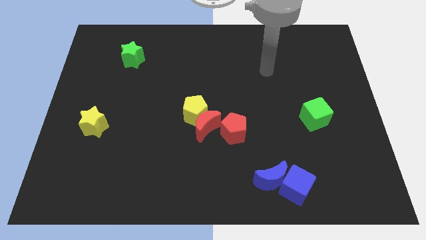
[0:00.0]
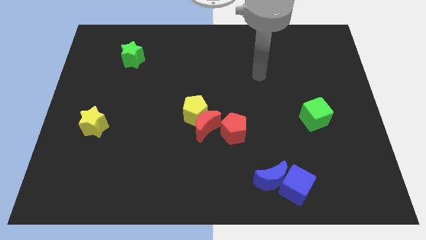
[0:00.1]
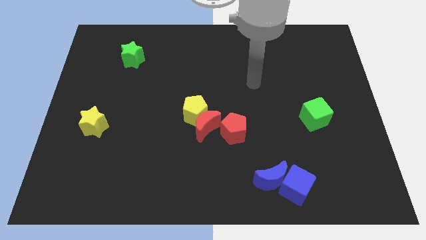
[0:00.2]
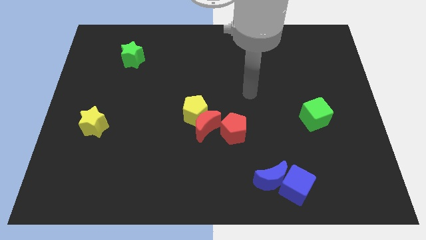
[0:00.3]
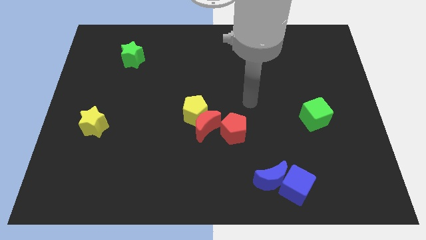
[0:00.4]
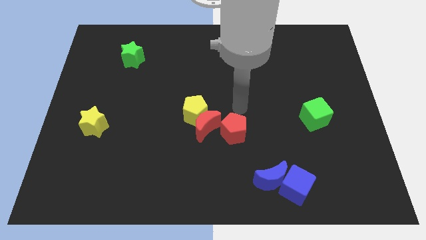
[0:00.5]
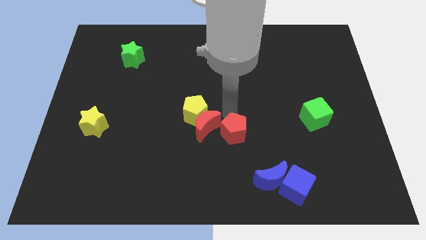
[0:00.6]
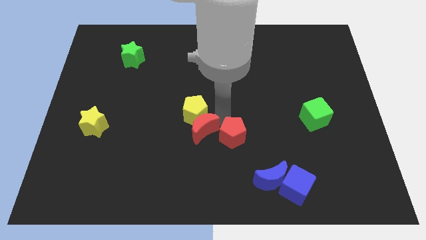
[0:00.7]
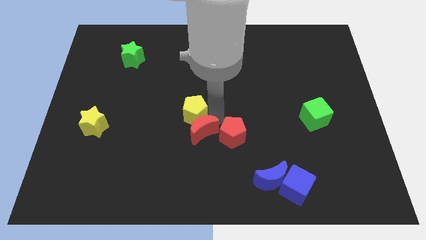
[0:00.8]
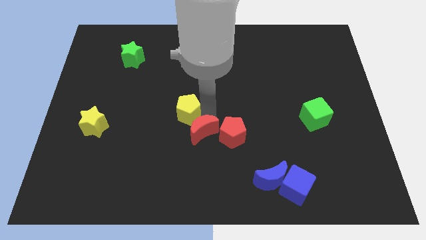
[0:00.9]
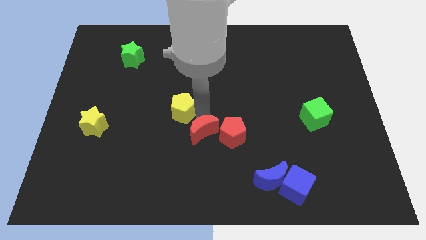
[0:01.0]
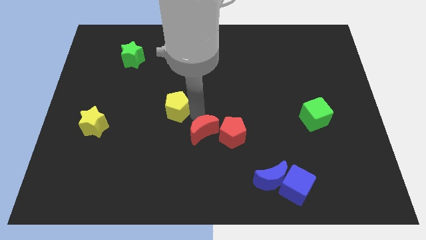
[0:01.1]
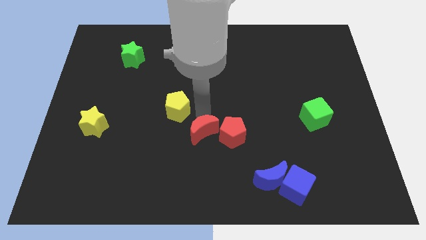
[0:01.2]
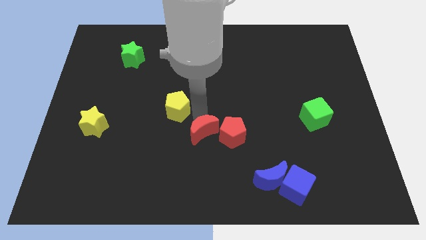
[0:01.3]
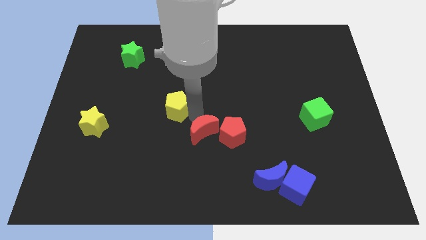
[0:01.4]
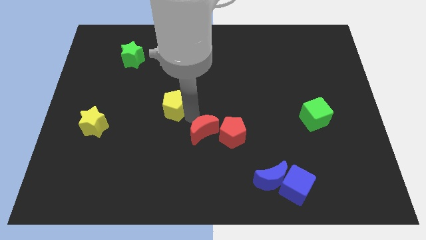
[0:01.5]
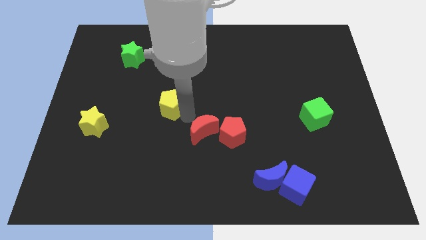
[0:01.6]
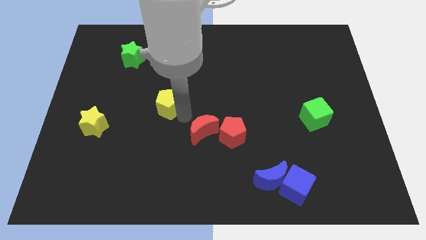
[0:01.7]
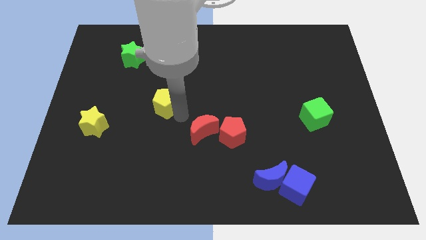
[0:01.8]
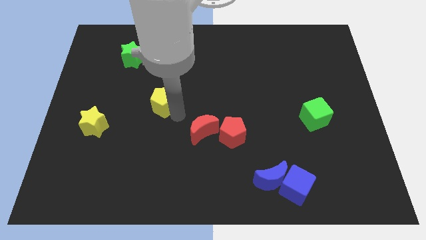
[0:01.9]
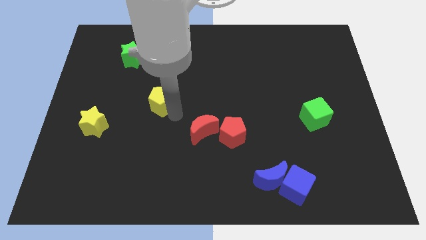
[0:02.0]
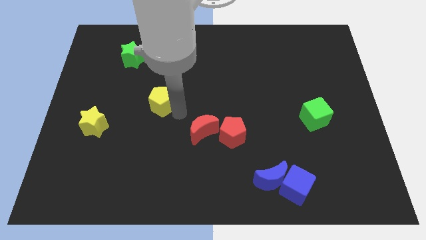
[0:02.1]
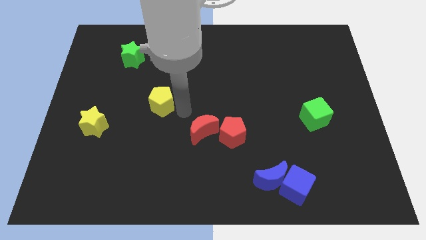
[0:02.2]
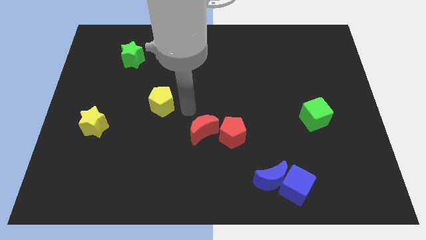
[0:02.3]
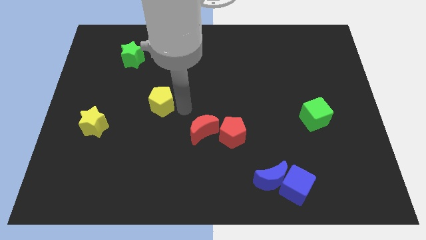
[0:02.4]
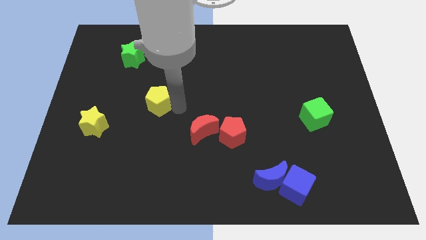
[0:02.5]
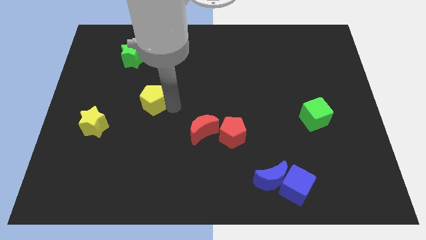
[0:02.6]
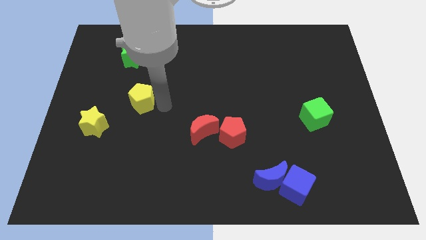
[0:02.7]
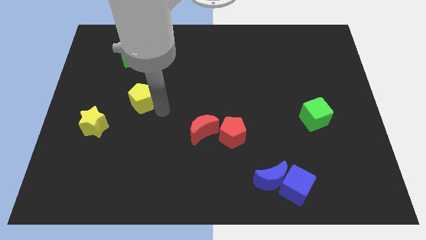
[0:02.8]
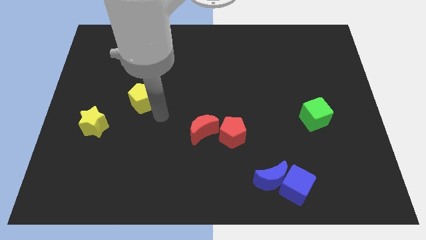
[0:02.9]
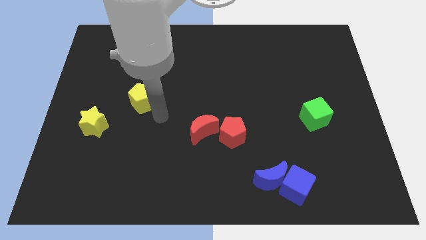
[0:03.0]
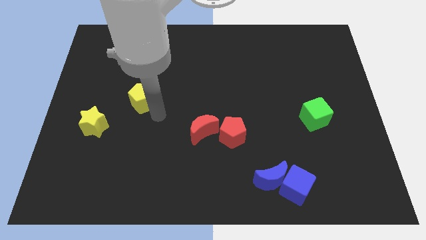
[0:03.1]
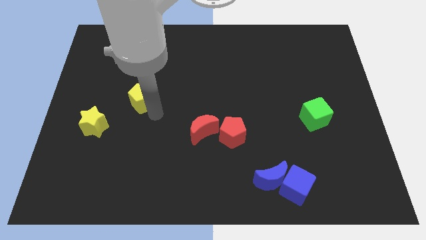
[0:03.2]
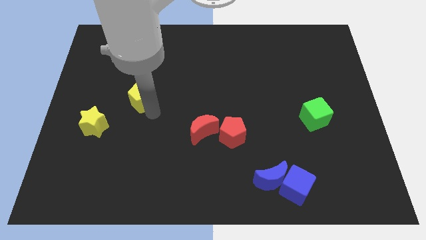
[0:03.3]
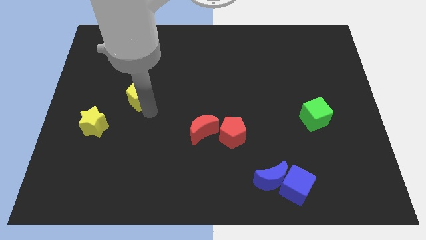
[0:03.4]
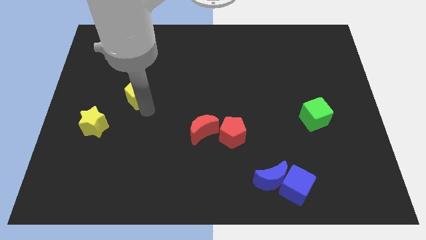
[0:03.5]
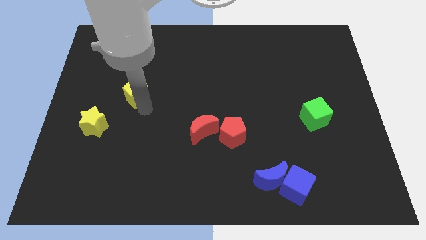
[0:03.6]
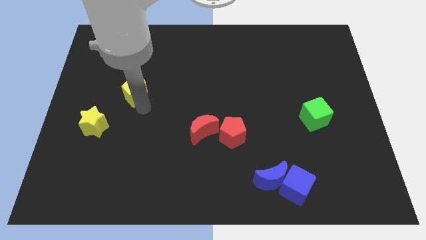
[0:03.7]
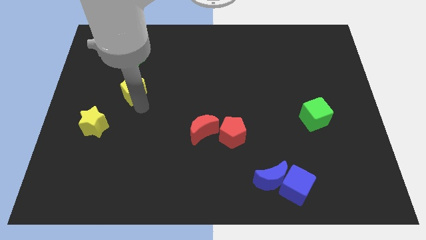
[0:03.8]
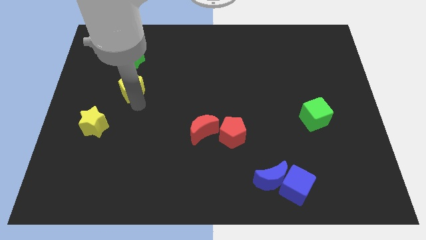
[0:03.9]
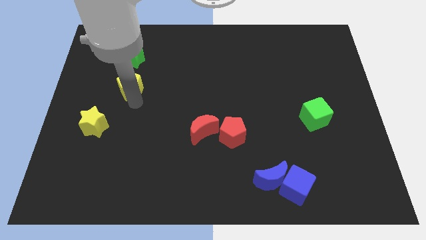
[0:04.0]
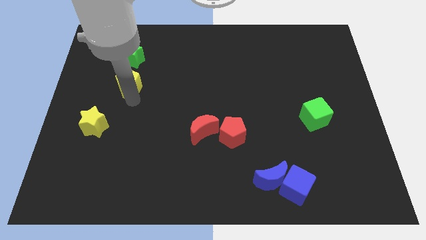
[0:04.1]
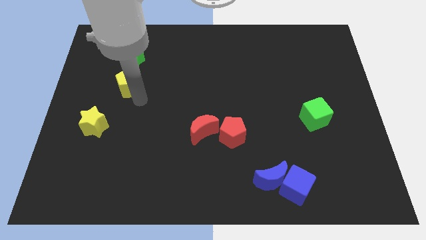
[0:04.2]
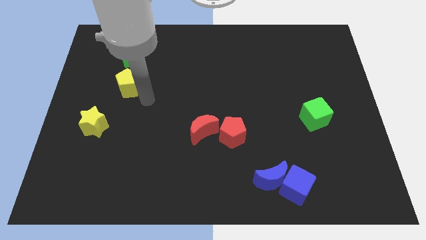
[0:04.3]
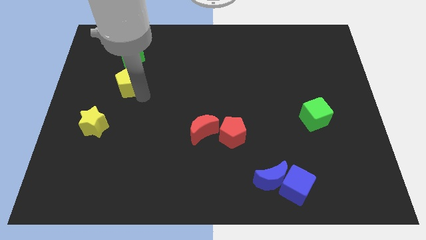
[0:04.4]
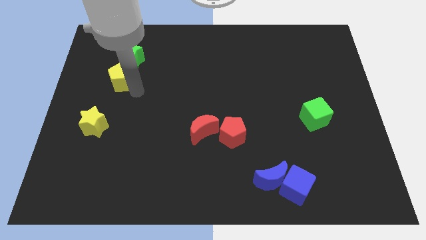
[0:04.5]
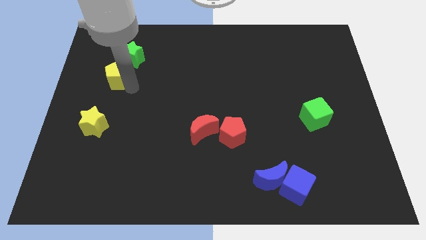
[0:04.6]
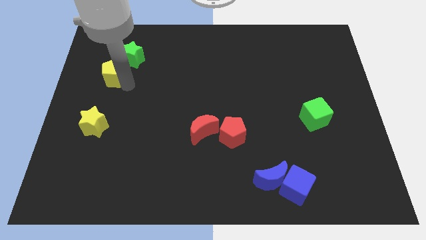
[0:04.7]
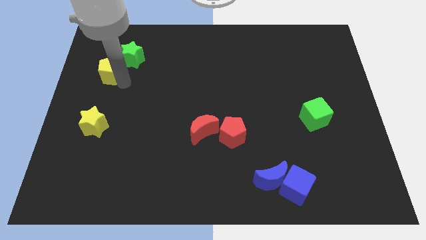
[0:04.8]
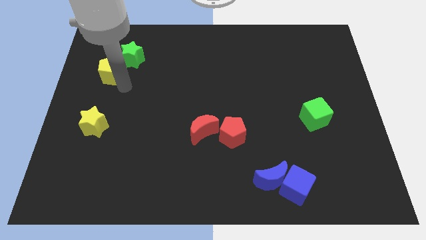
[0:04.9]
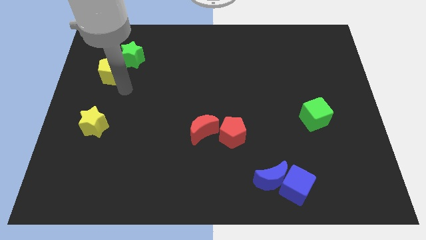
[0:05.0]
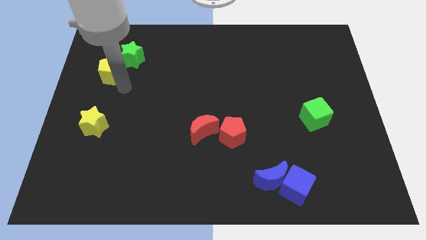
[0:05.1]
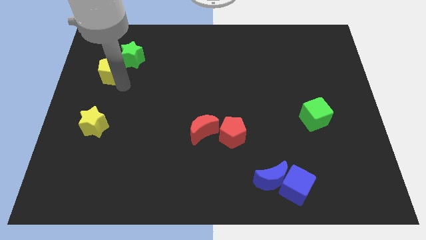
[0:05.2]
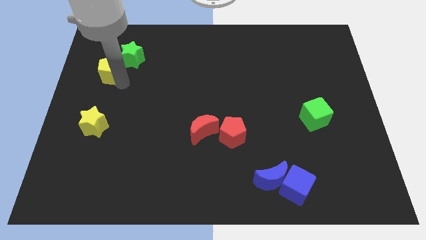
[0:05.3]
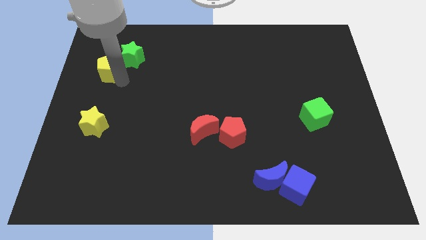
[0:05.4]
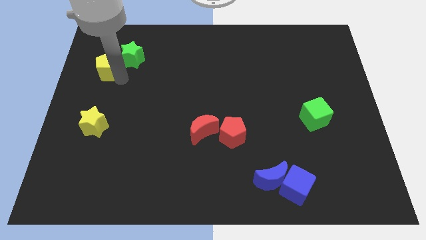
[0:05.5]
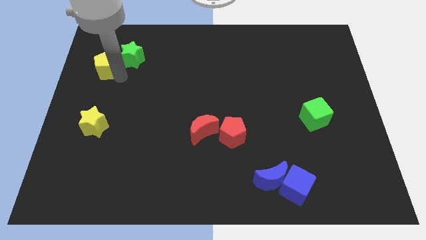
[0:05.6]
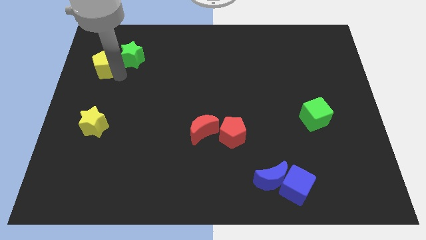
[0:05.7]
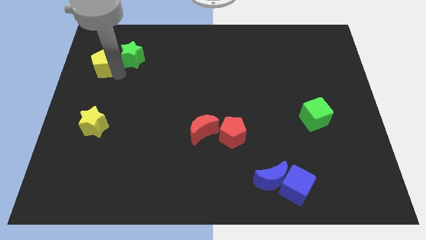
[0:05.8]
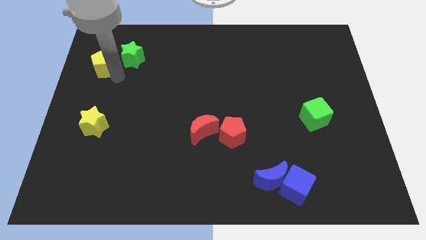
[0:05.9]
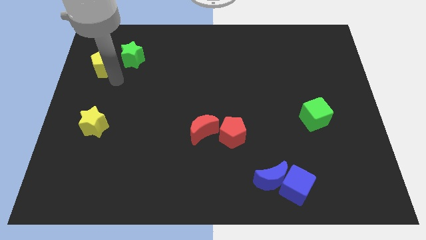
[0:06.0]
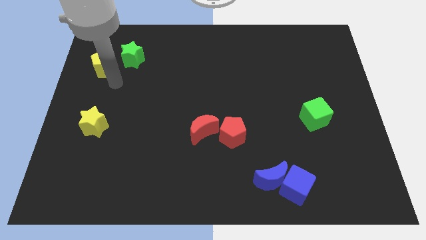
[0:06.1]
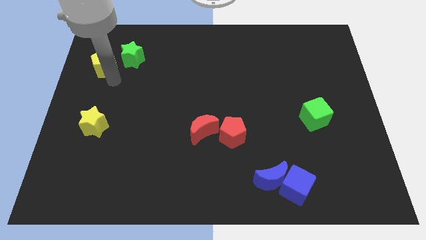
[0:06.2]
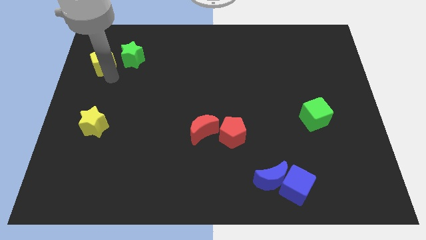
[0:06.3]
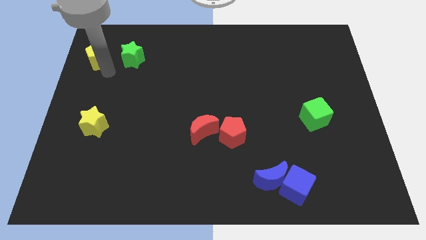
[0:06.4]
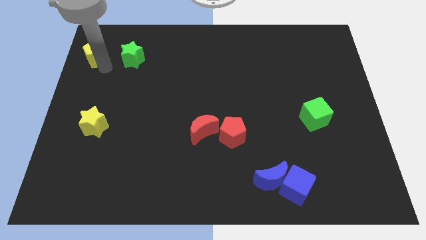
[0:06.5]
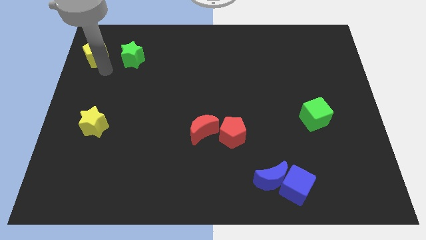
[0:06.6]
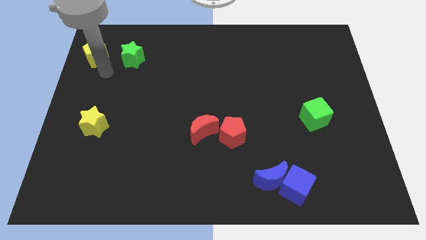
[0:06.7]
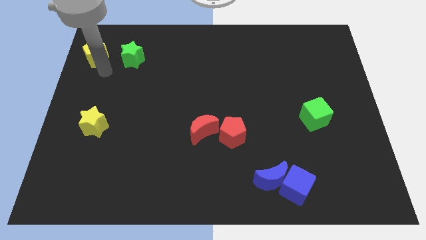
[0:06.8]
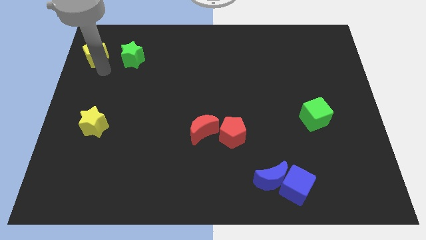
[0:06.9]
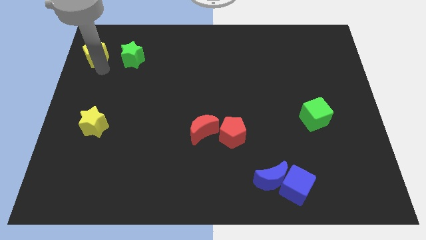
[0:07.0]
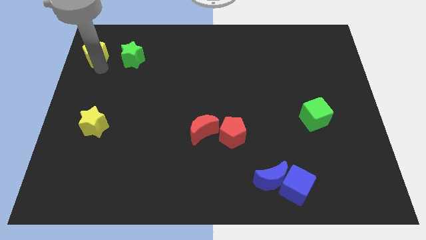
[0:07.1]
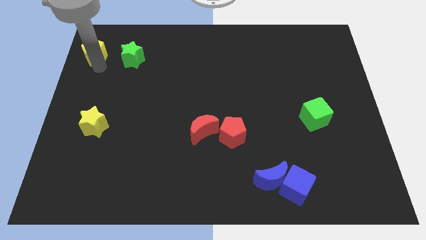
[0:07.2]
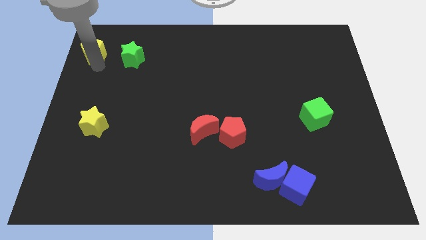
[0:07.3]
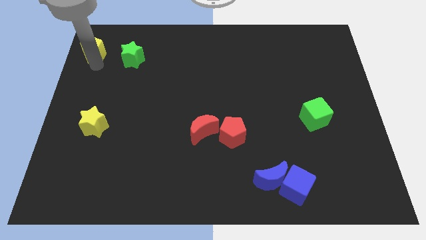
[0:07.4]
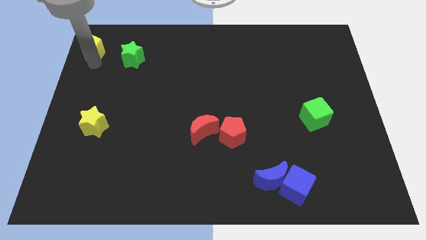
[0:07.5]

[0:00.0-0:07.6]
move the yellow pentagon to the top left of the board
